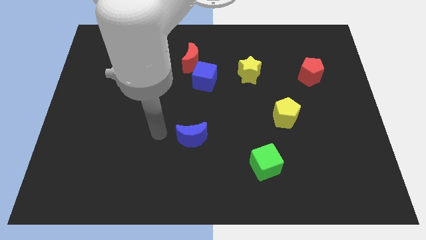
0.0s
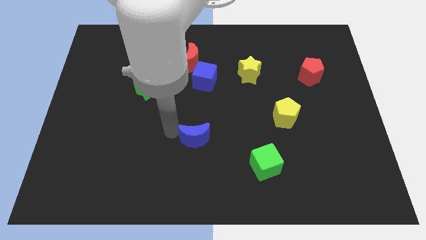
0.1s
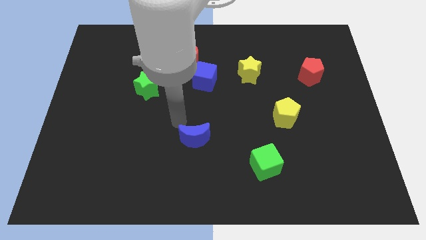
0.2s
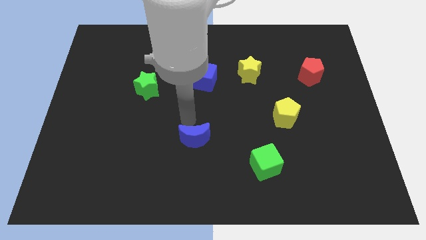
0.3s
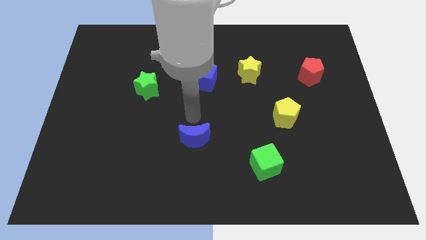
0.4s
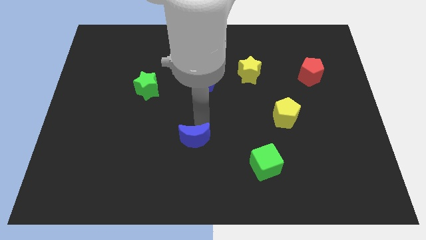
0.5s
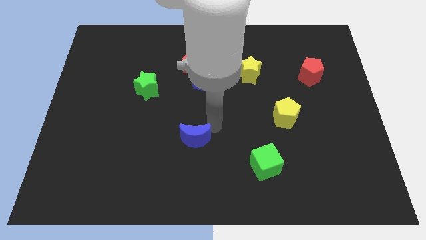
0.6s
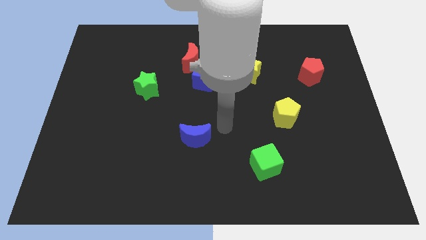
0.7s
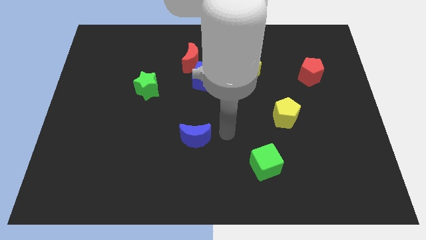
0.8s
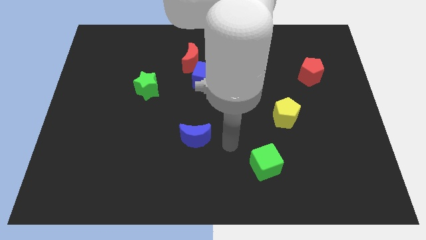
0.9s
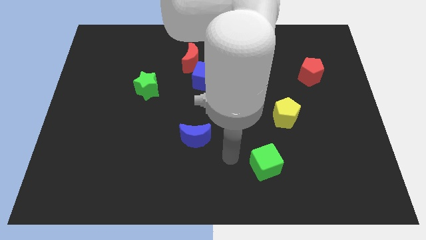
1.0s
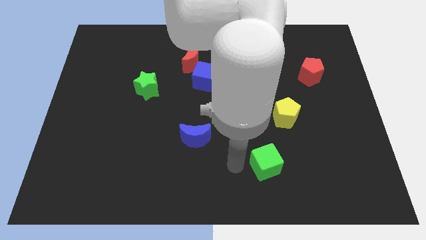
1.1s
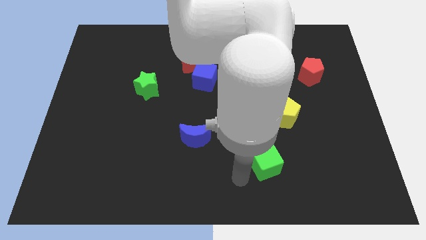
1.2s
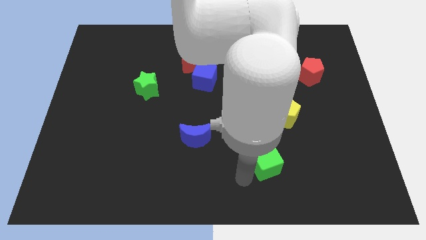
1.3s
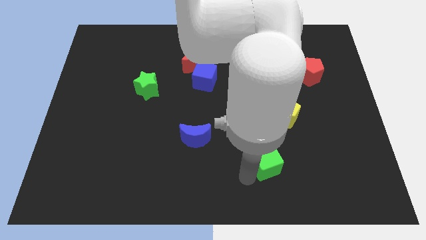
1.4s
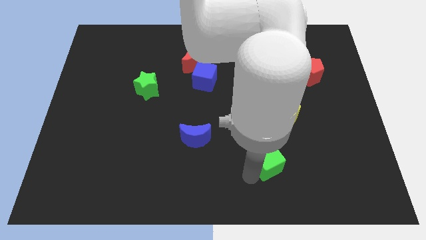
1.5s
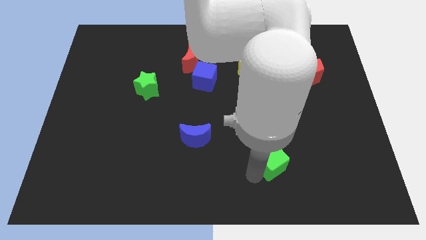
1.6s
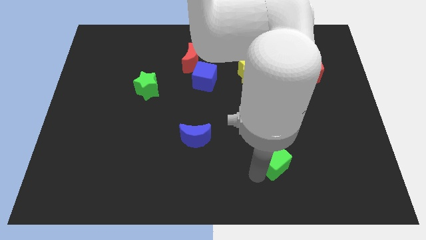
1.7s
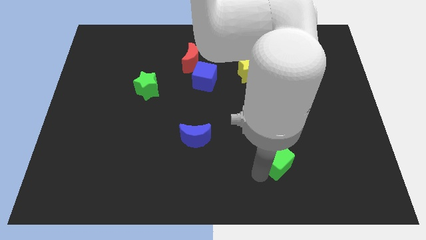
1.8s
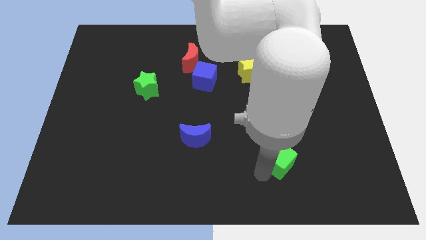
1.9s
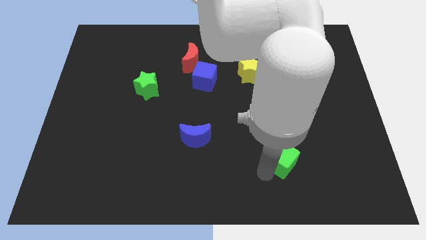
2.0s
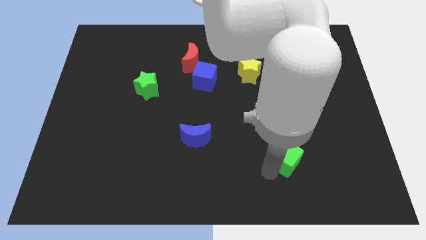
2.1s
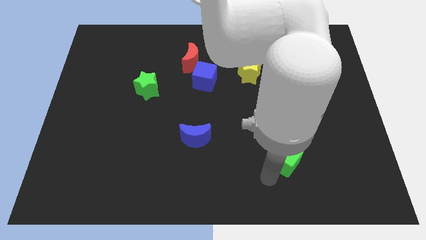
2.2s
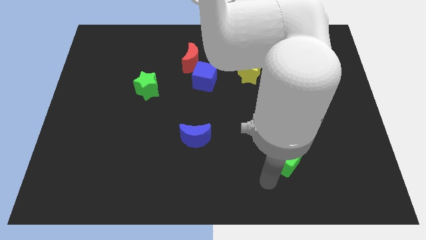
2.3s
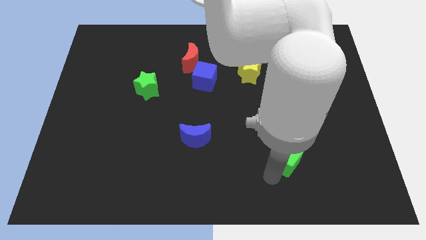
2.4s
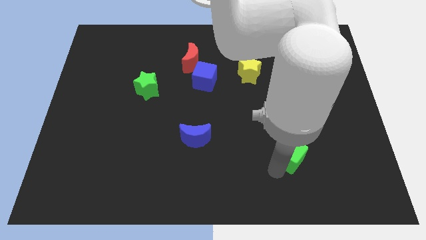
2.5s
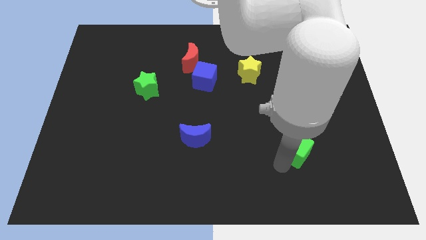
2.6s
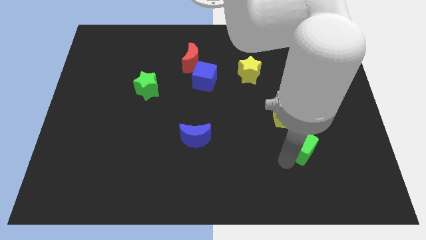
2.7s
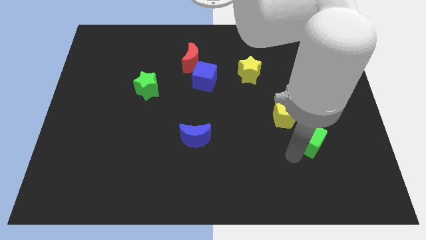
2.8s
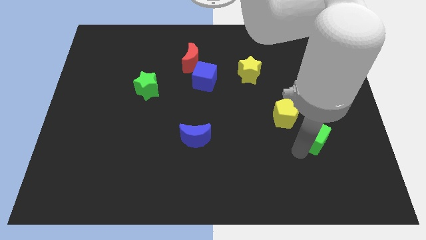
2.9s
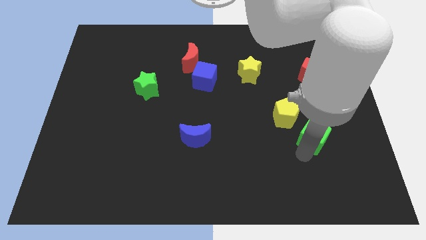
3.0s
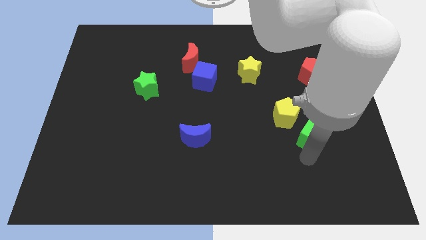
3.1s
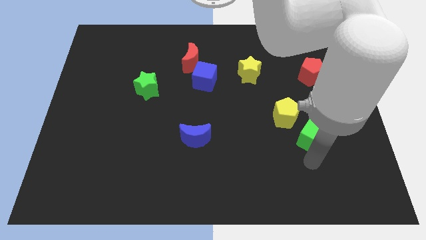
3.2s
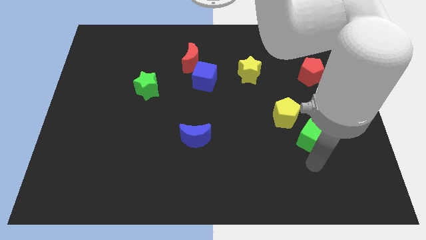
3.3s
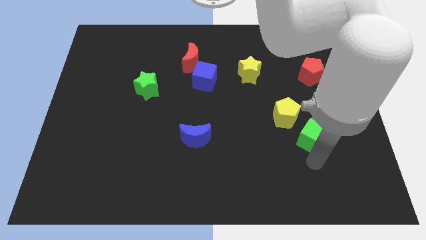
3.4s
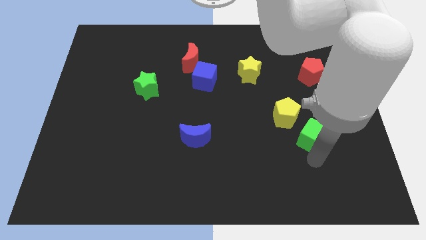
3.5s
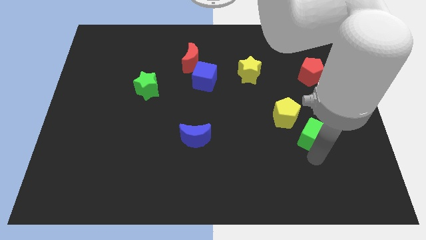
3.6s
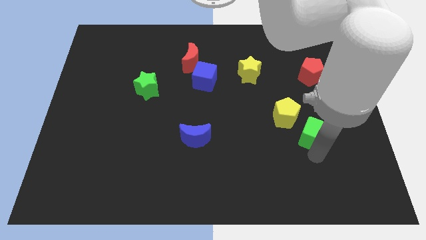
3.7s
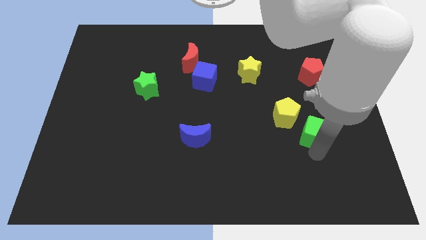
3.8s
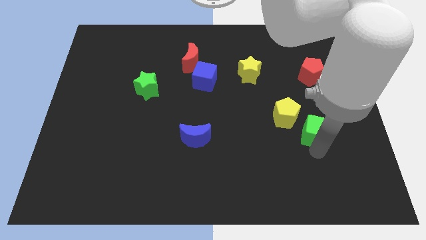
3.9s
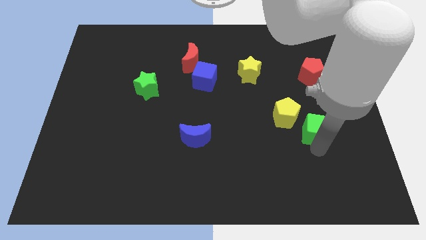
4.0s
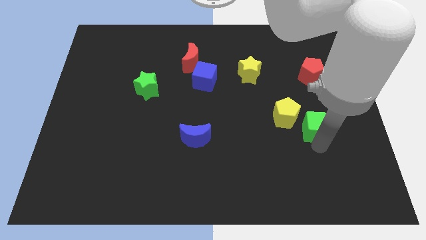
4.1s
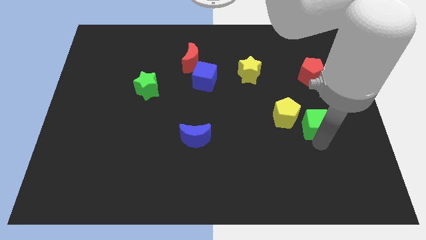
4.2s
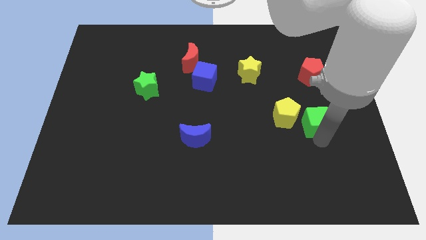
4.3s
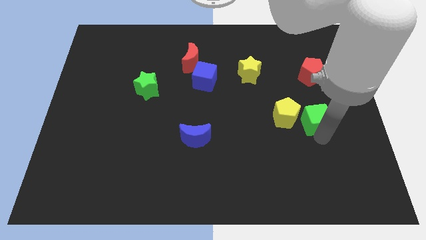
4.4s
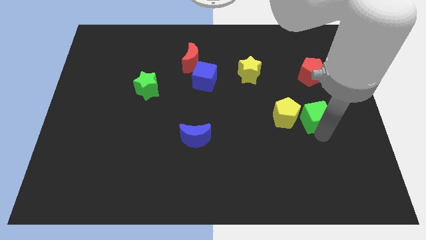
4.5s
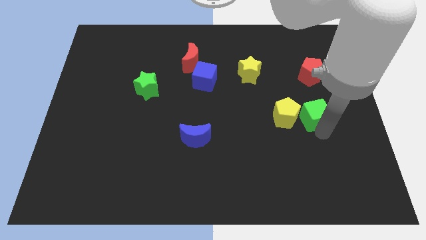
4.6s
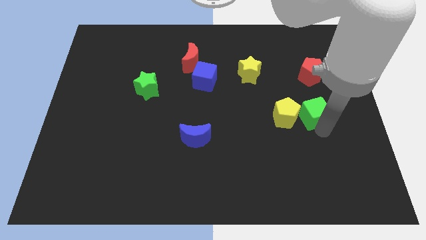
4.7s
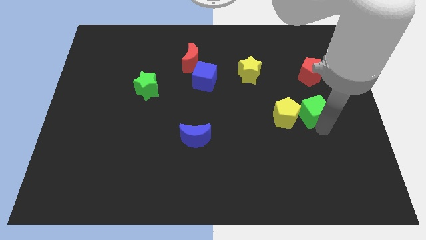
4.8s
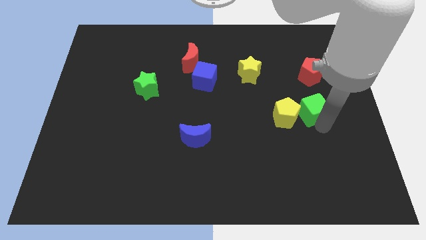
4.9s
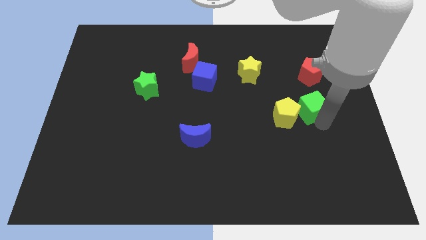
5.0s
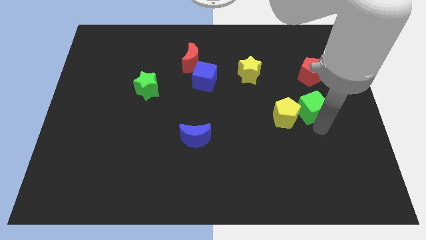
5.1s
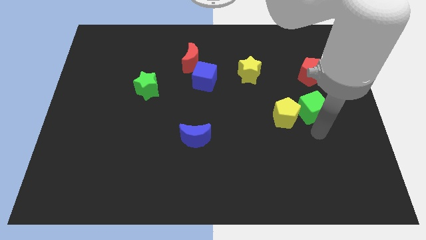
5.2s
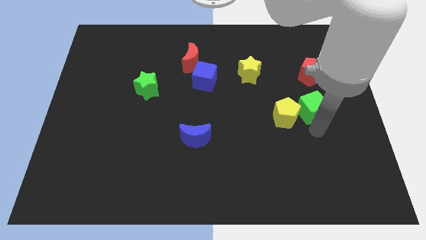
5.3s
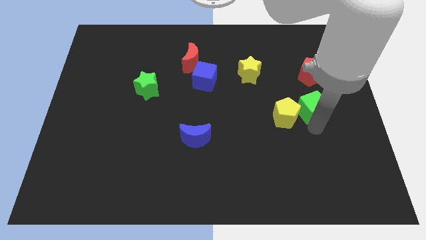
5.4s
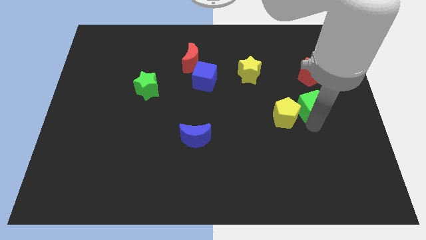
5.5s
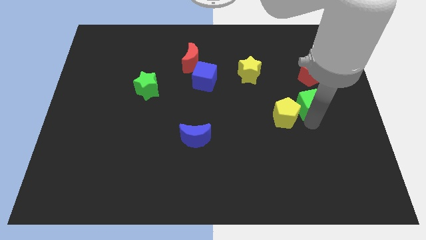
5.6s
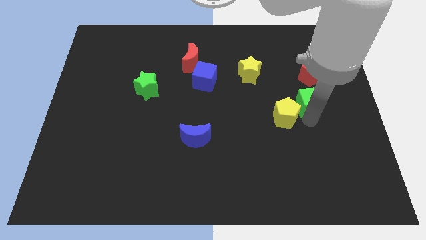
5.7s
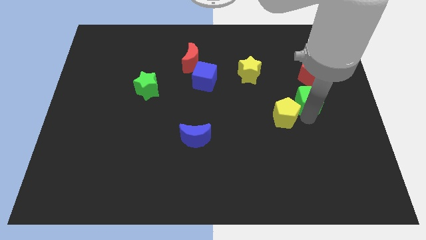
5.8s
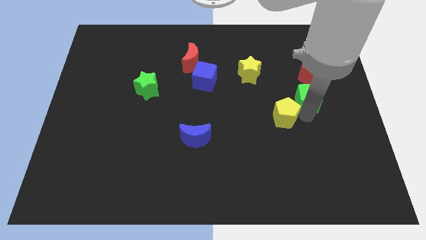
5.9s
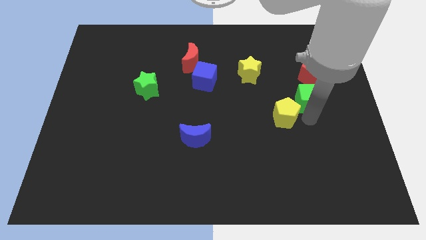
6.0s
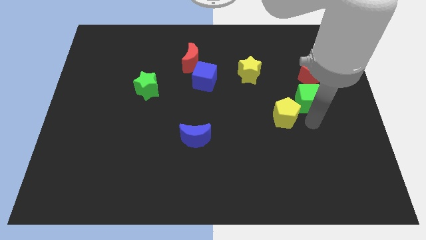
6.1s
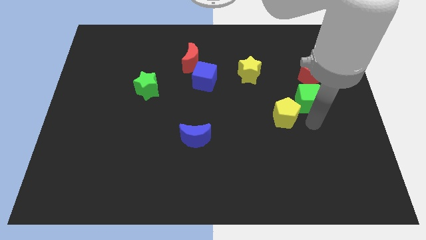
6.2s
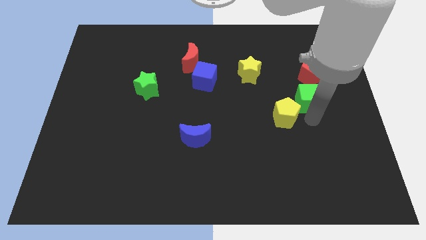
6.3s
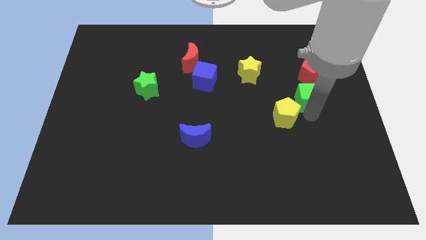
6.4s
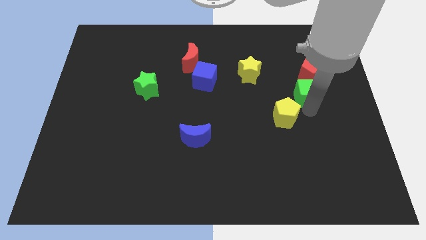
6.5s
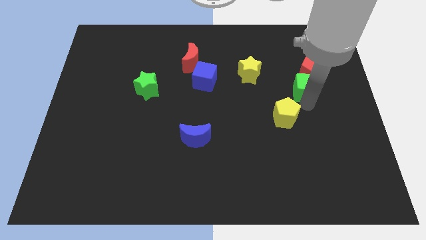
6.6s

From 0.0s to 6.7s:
push the green cube next to the red pentagon
